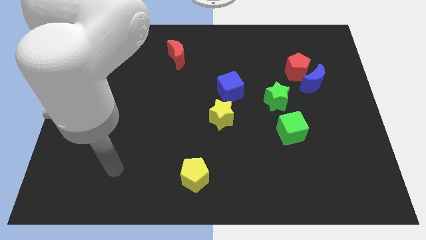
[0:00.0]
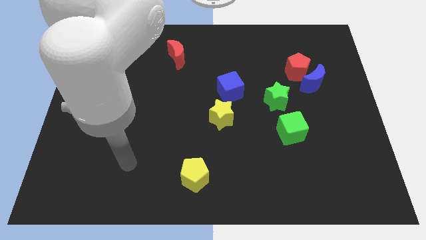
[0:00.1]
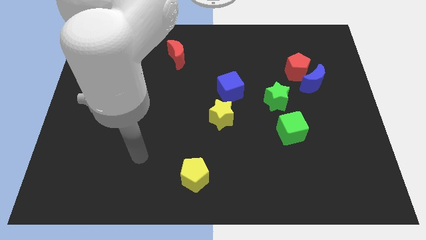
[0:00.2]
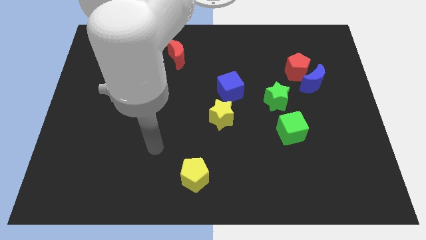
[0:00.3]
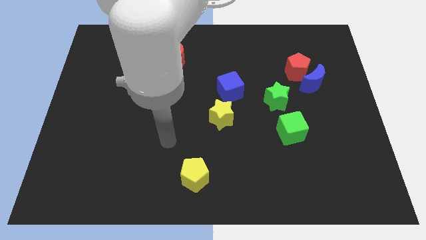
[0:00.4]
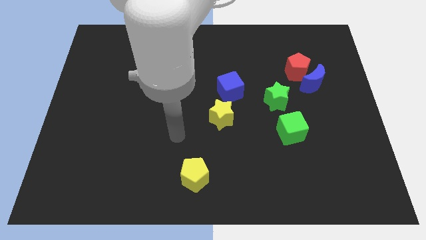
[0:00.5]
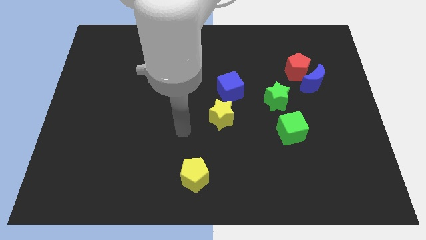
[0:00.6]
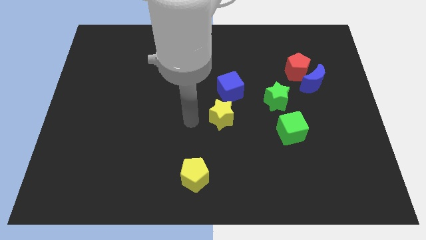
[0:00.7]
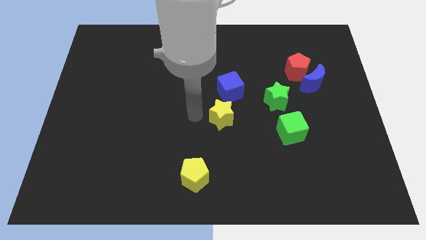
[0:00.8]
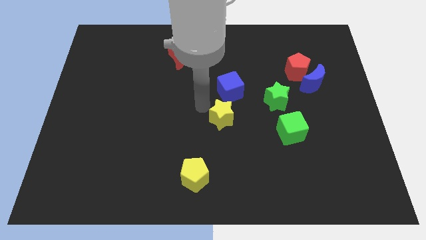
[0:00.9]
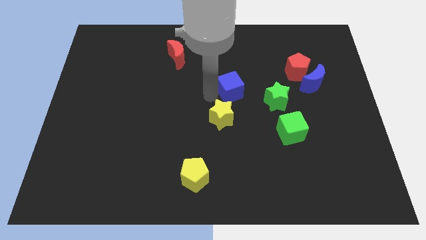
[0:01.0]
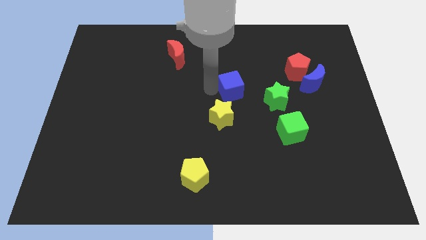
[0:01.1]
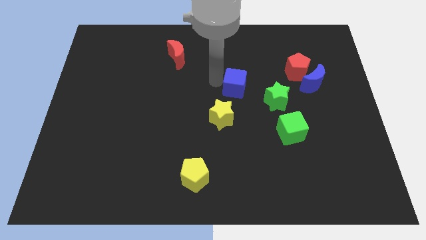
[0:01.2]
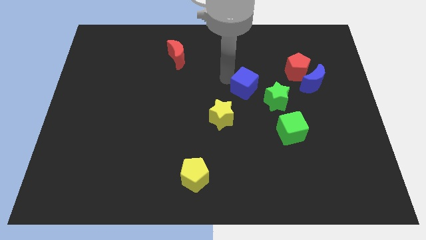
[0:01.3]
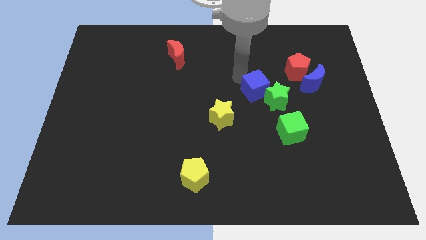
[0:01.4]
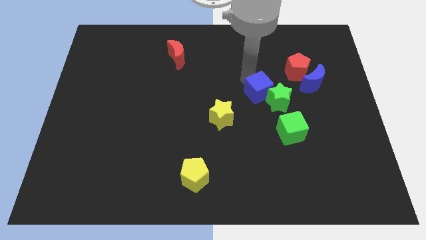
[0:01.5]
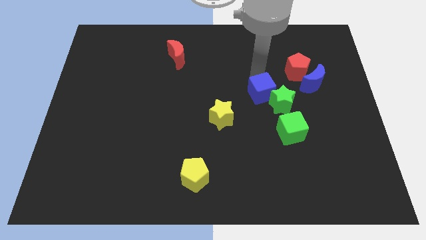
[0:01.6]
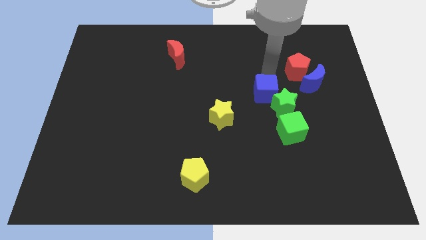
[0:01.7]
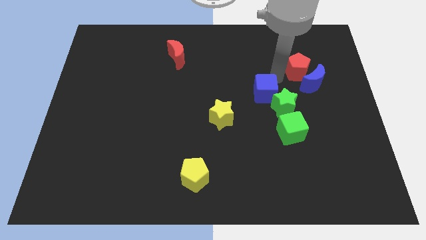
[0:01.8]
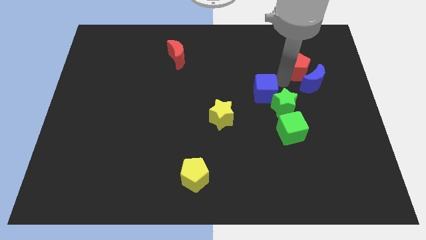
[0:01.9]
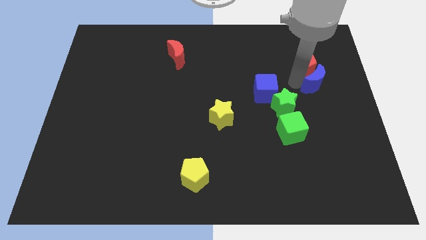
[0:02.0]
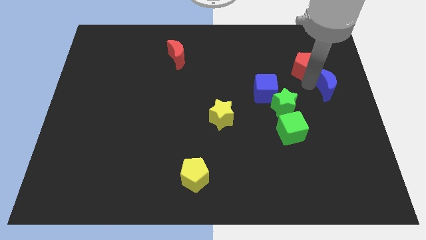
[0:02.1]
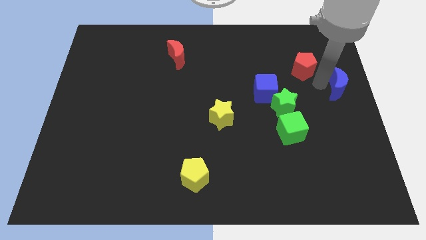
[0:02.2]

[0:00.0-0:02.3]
move the red pentagon away from the blue moon

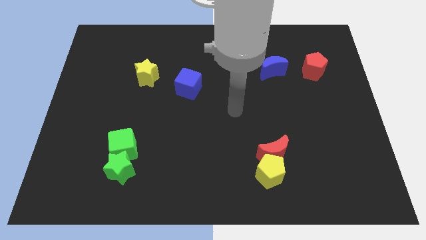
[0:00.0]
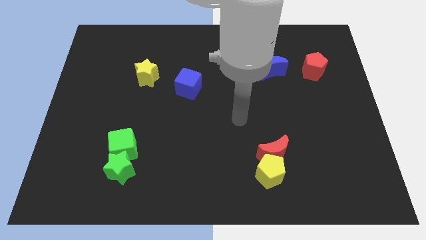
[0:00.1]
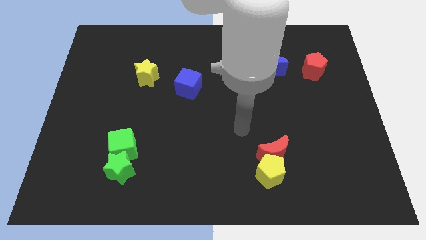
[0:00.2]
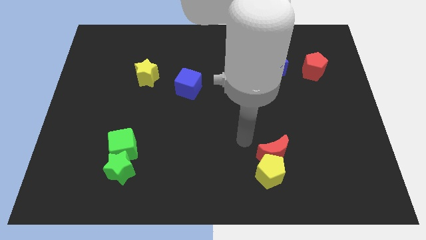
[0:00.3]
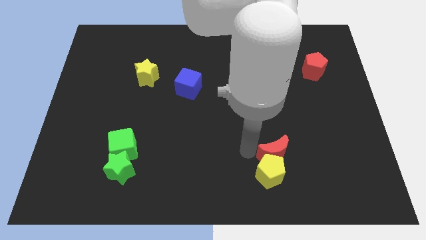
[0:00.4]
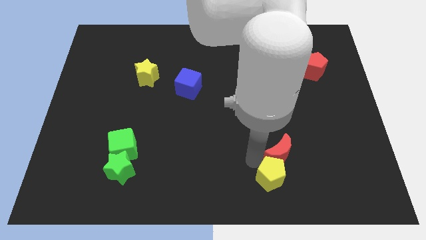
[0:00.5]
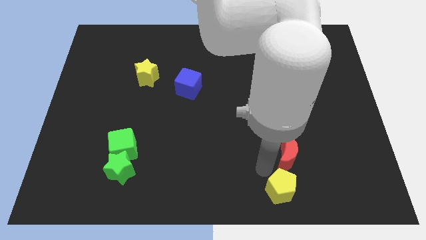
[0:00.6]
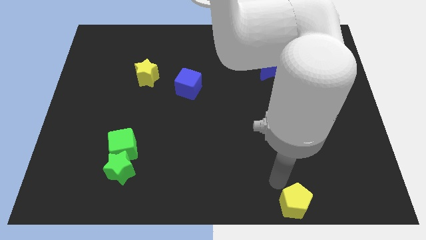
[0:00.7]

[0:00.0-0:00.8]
move the red moon away from the yellow pentagon

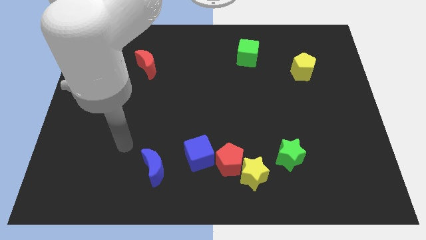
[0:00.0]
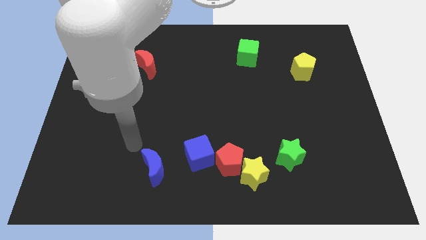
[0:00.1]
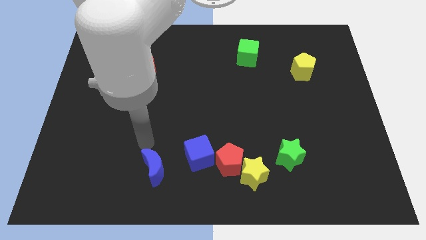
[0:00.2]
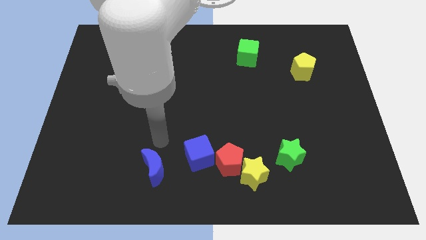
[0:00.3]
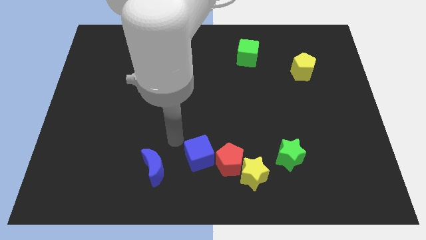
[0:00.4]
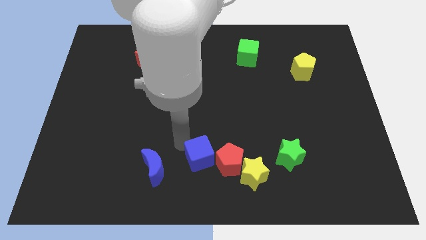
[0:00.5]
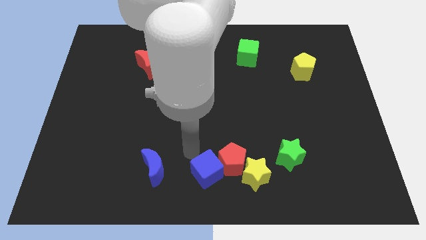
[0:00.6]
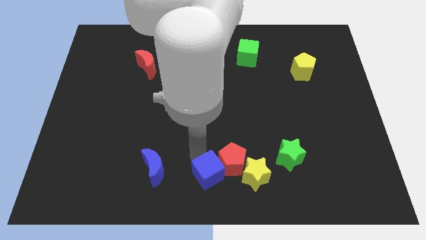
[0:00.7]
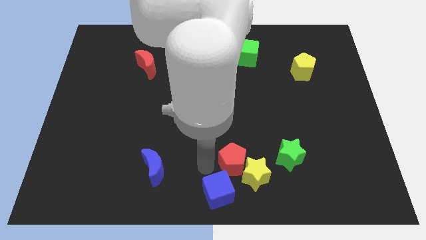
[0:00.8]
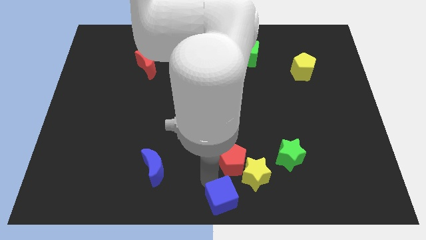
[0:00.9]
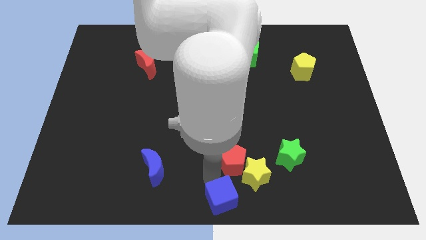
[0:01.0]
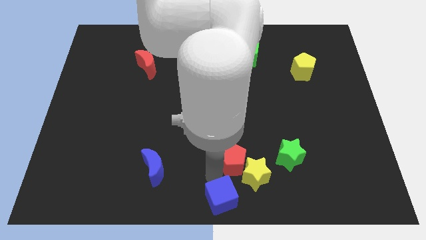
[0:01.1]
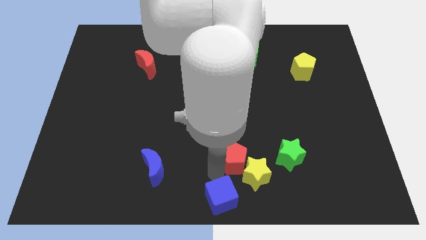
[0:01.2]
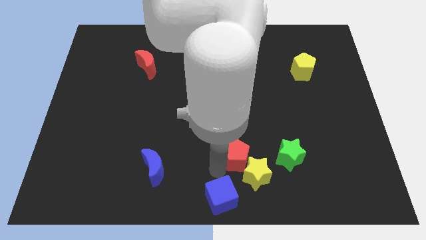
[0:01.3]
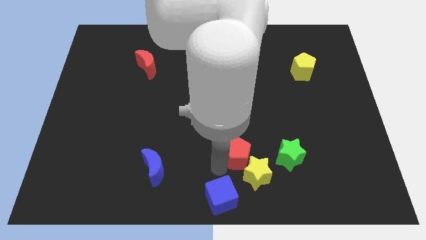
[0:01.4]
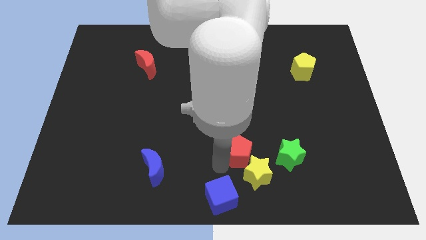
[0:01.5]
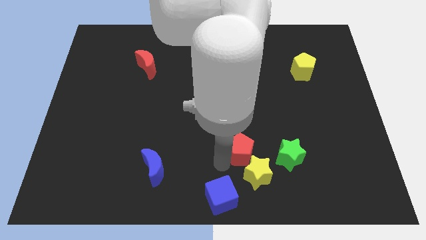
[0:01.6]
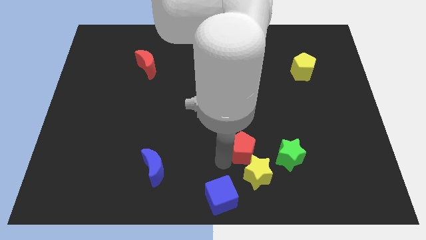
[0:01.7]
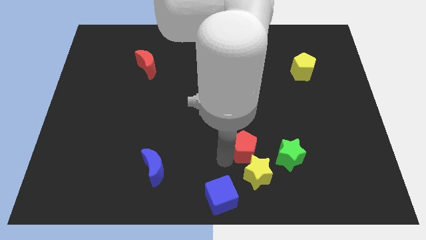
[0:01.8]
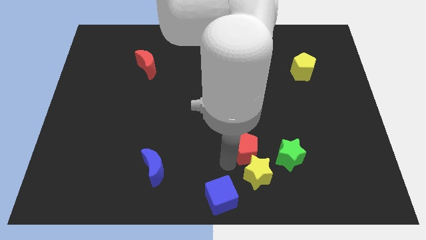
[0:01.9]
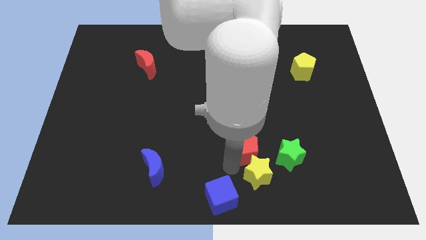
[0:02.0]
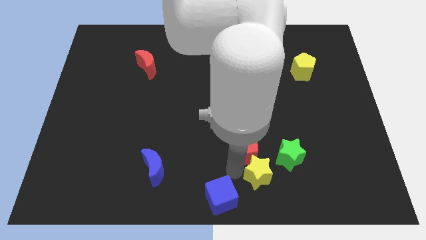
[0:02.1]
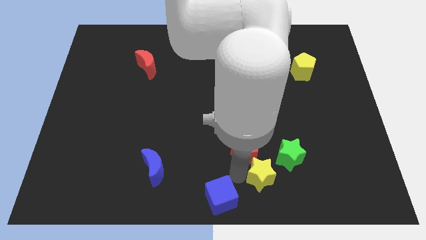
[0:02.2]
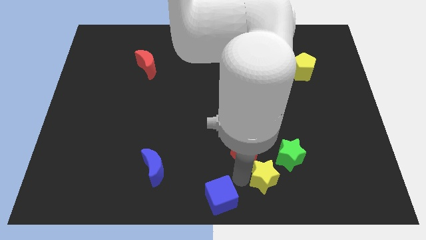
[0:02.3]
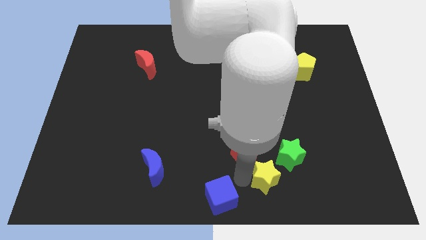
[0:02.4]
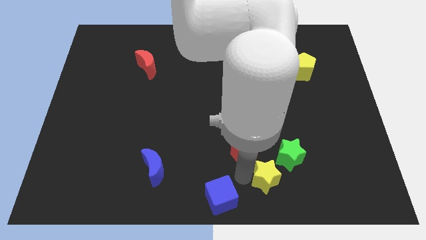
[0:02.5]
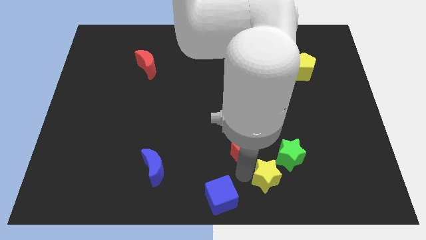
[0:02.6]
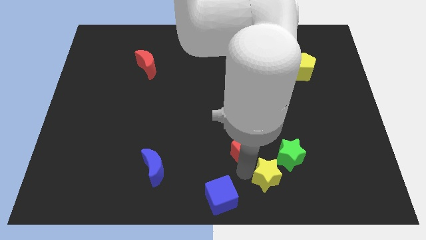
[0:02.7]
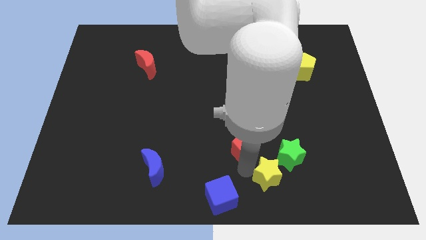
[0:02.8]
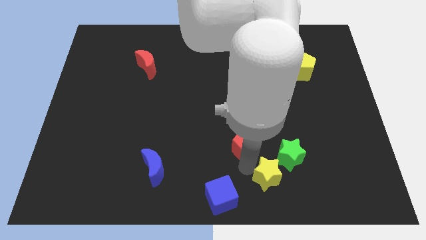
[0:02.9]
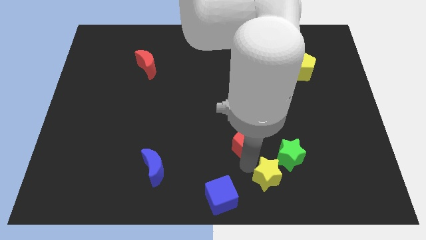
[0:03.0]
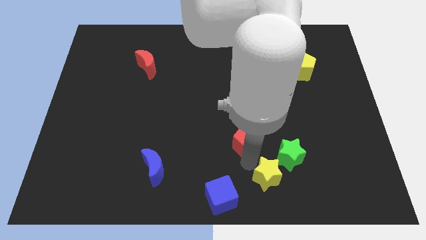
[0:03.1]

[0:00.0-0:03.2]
pull the red pentagon apart from the yellow star and blue cube

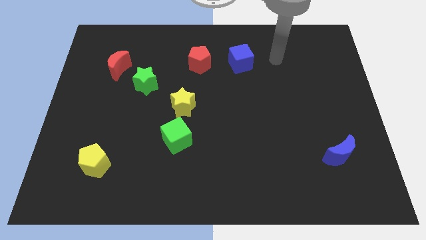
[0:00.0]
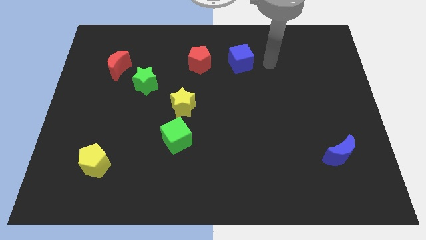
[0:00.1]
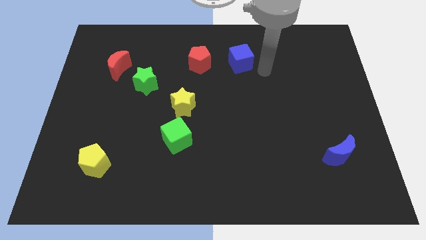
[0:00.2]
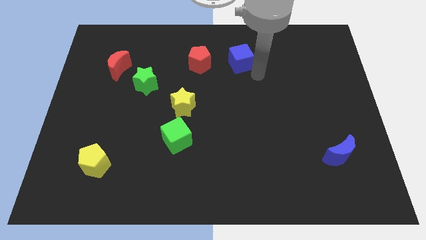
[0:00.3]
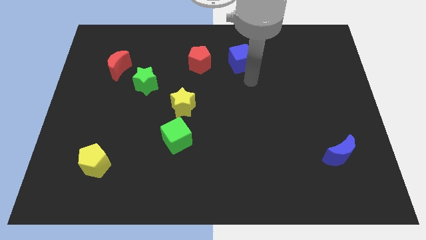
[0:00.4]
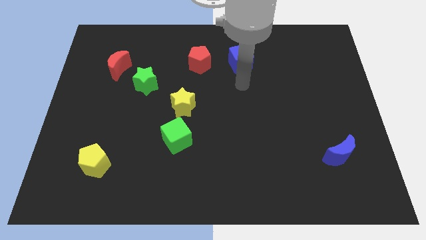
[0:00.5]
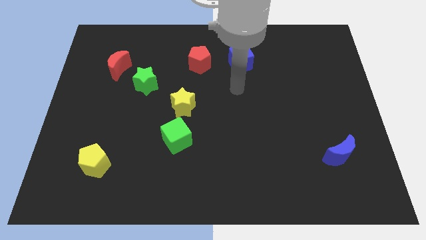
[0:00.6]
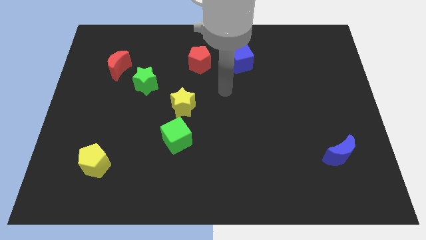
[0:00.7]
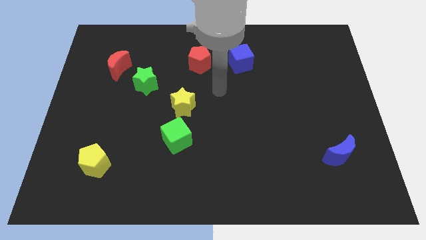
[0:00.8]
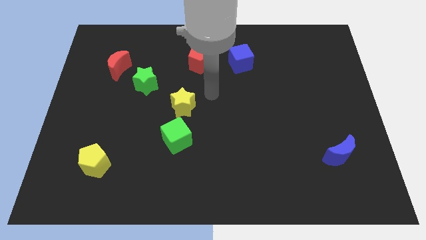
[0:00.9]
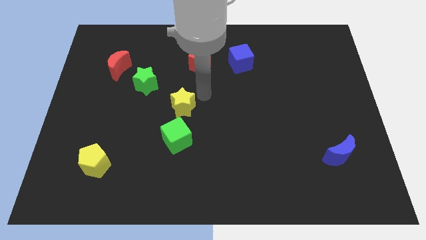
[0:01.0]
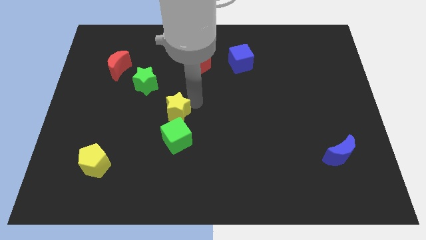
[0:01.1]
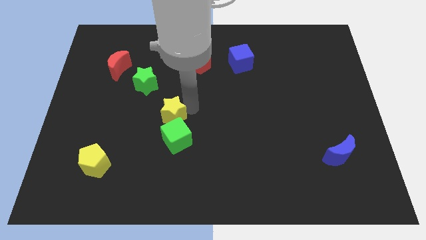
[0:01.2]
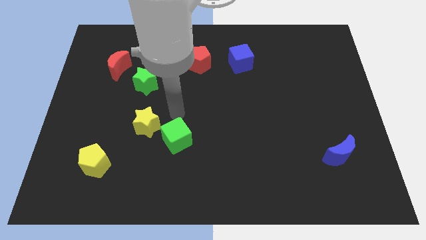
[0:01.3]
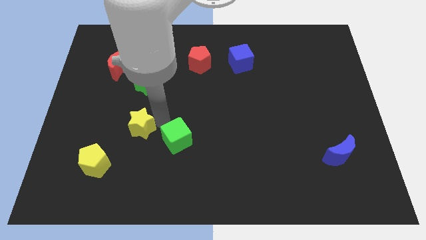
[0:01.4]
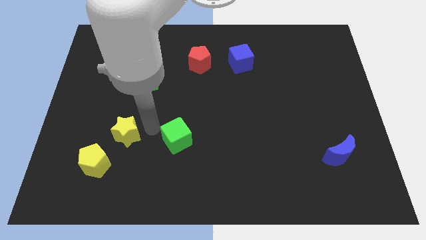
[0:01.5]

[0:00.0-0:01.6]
pull the green cube apart from the yellow star

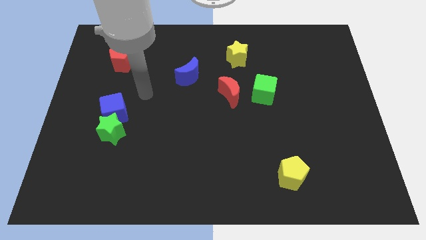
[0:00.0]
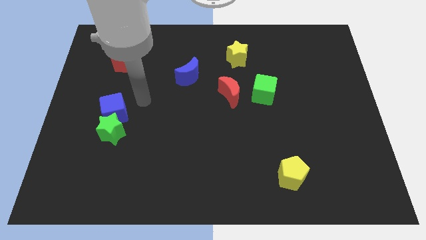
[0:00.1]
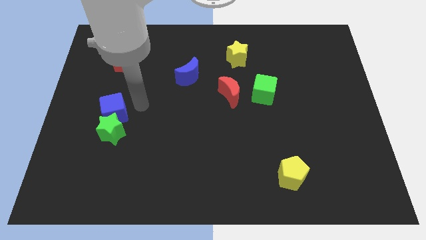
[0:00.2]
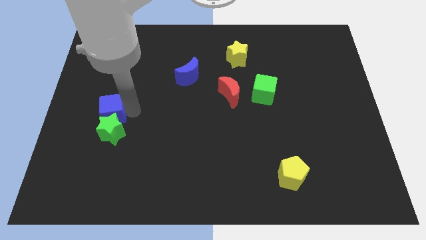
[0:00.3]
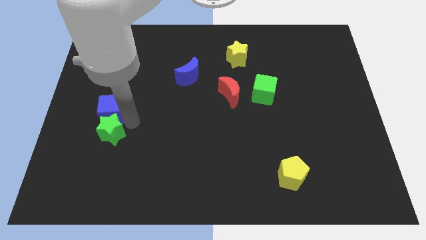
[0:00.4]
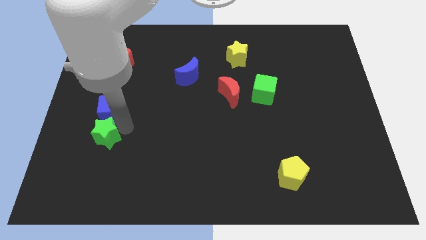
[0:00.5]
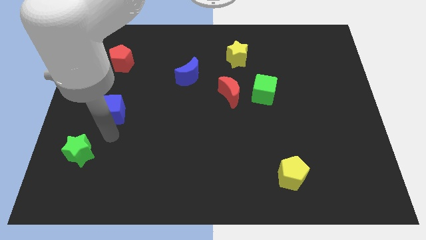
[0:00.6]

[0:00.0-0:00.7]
pull the blue cube apart from the green star

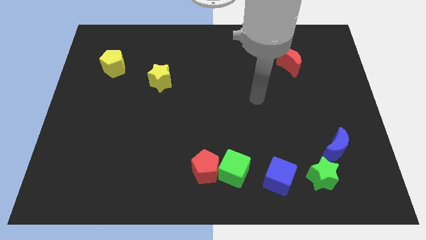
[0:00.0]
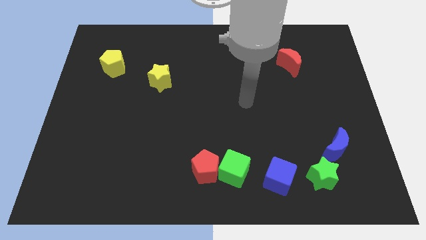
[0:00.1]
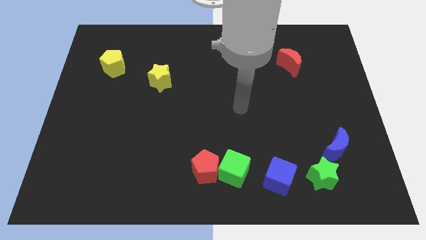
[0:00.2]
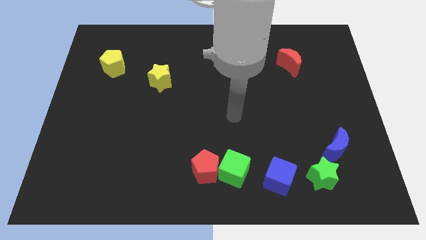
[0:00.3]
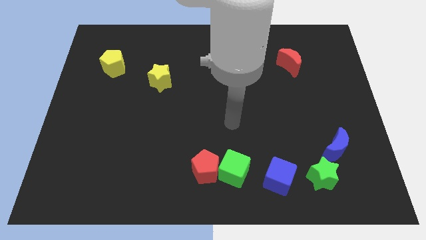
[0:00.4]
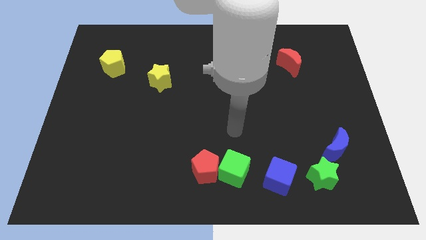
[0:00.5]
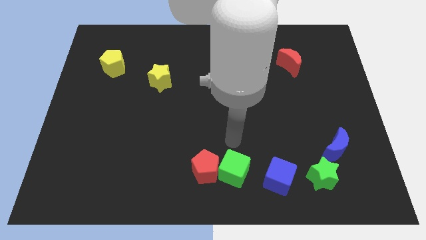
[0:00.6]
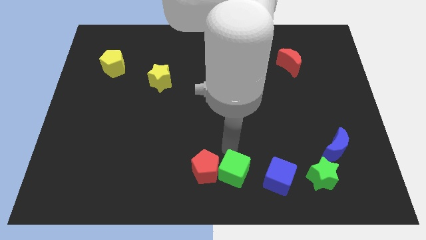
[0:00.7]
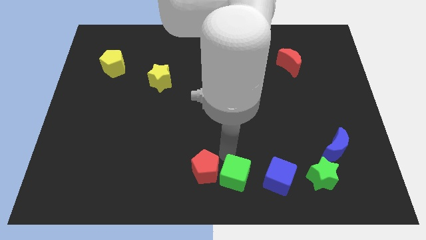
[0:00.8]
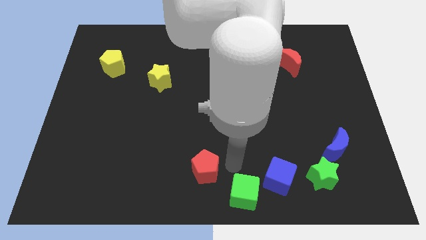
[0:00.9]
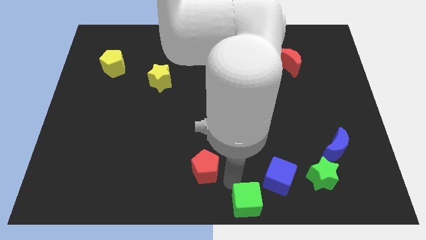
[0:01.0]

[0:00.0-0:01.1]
move the red pentagon away from the green cube
